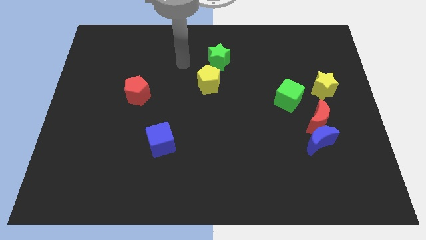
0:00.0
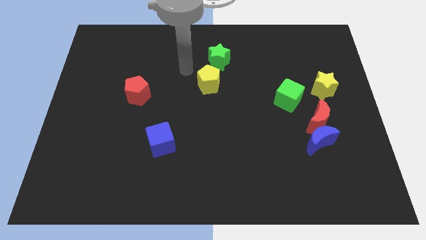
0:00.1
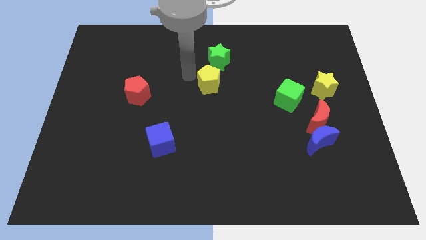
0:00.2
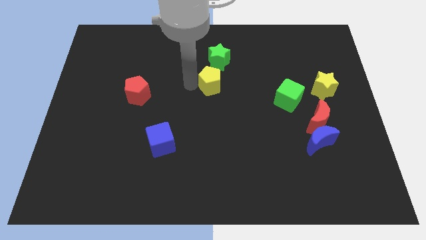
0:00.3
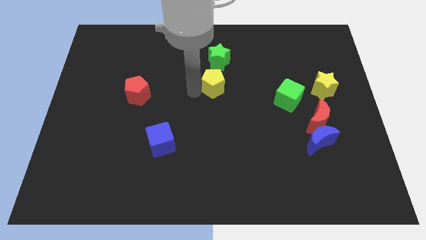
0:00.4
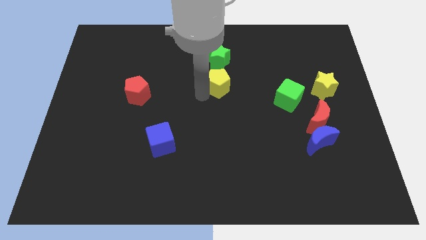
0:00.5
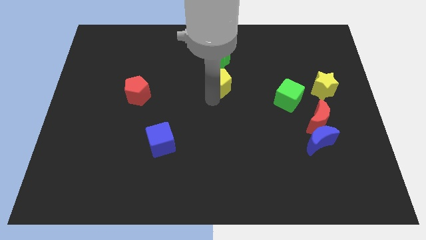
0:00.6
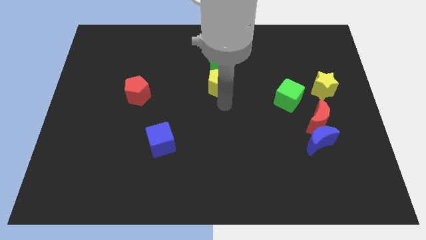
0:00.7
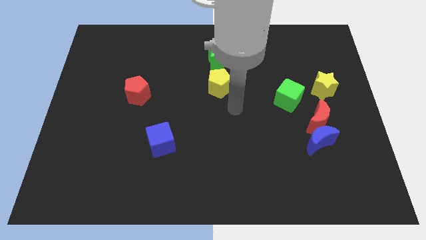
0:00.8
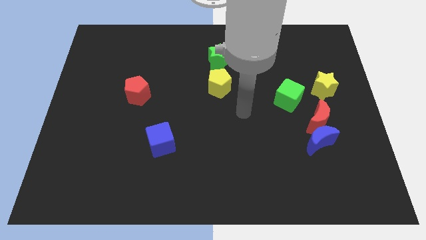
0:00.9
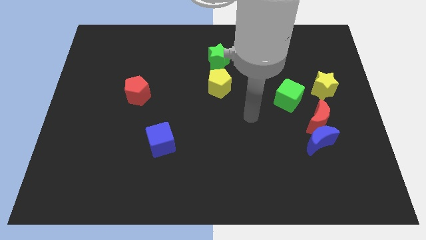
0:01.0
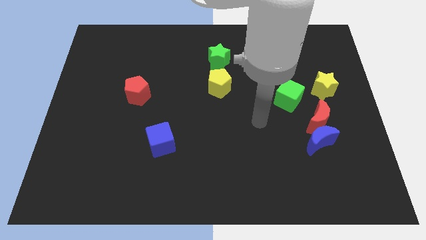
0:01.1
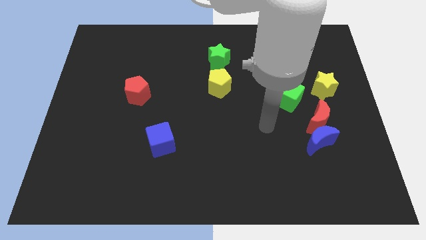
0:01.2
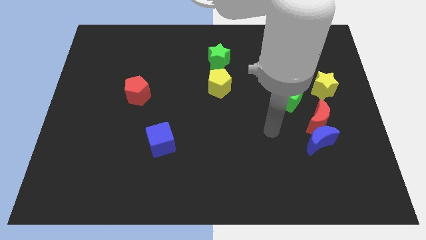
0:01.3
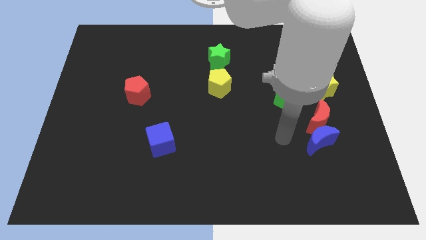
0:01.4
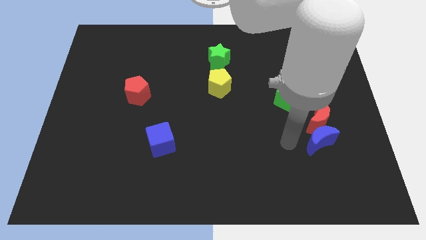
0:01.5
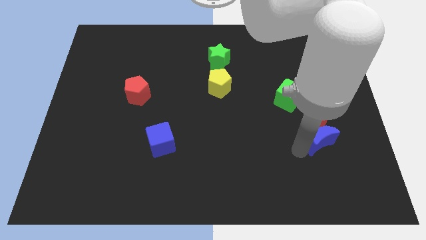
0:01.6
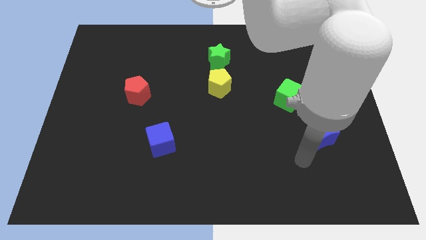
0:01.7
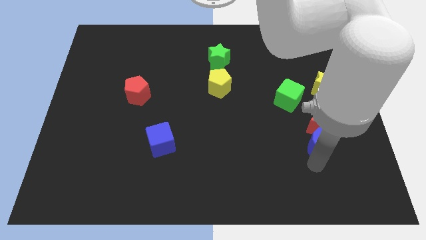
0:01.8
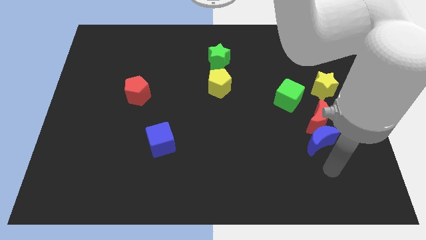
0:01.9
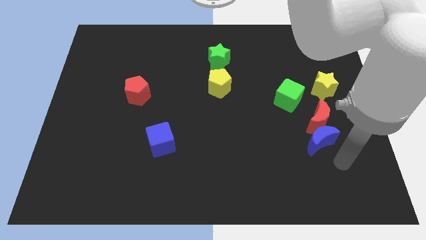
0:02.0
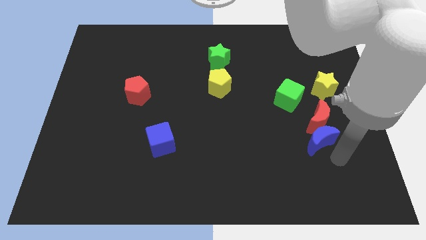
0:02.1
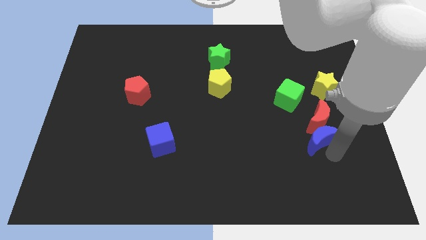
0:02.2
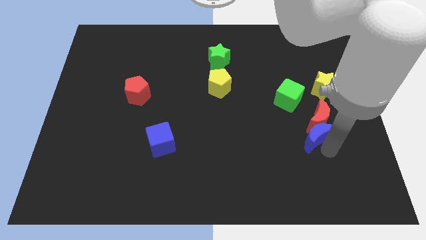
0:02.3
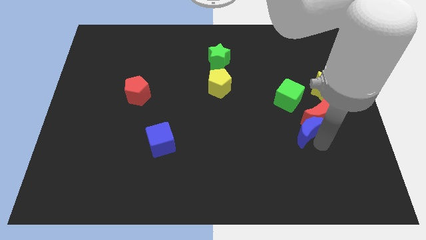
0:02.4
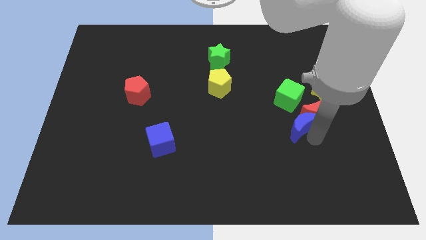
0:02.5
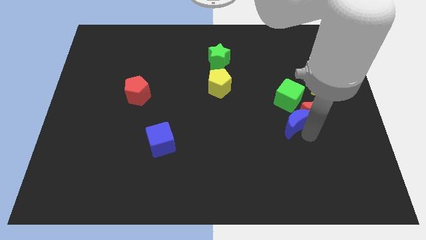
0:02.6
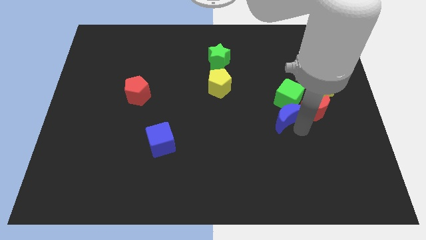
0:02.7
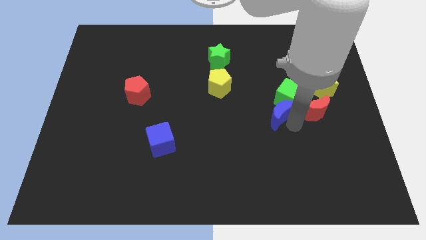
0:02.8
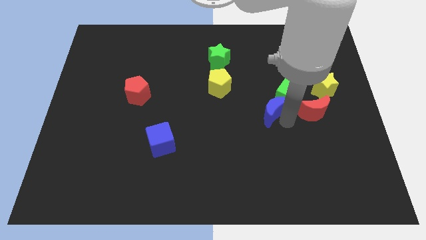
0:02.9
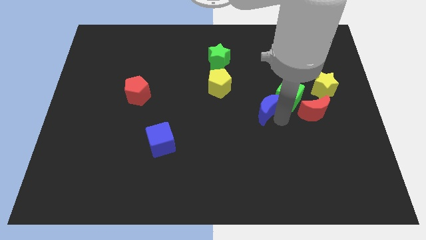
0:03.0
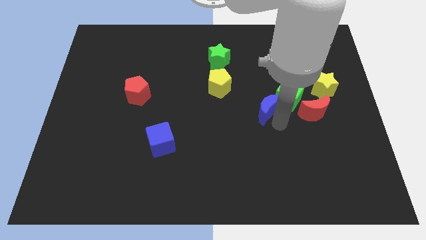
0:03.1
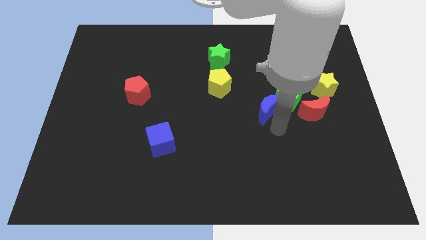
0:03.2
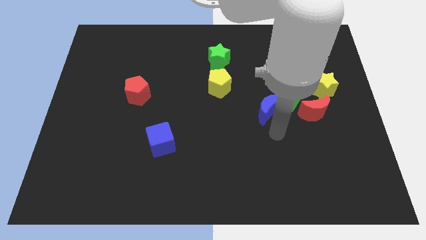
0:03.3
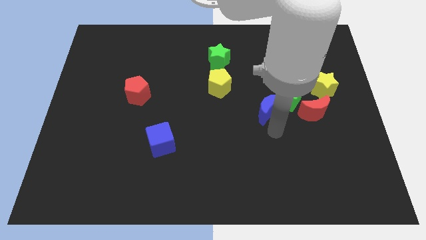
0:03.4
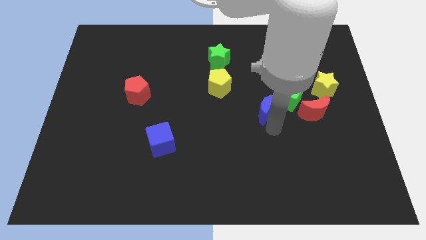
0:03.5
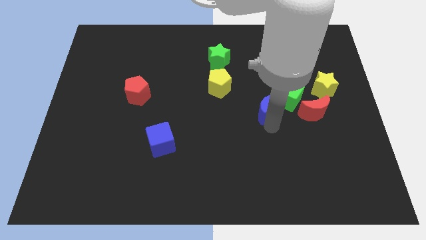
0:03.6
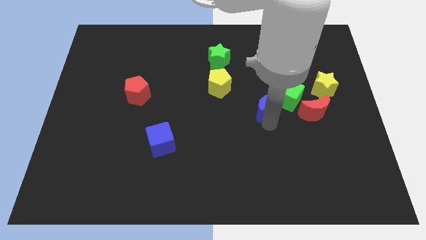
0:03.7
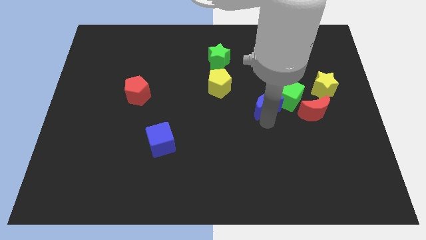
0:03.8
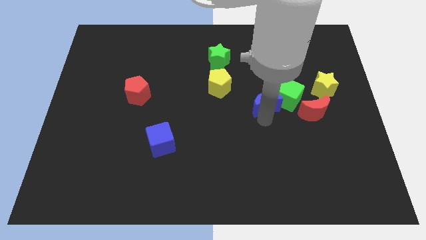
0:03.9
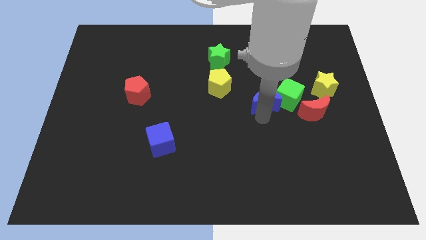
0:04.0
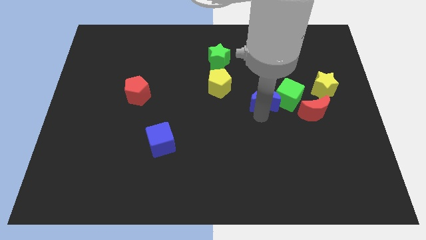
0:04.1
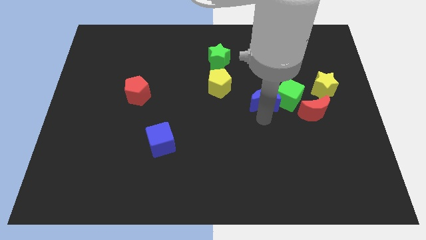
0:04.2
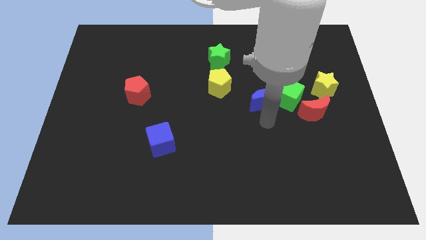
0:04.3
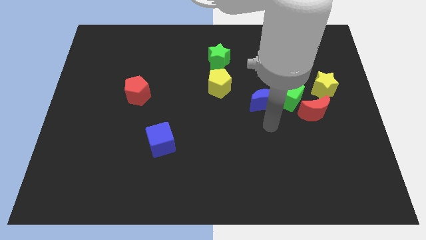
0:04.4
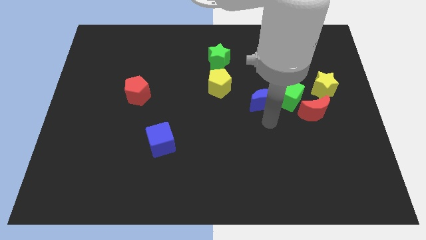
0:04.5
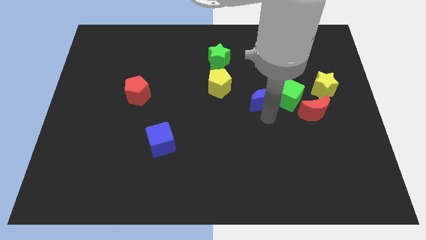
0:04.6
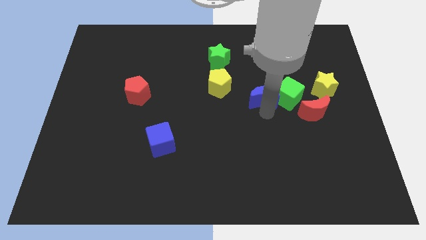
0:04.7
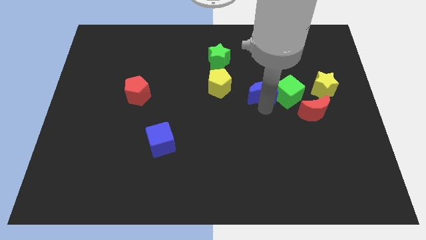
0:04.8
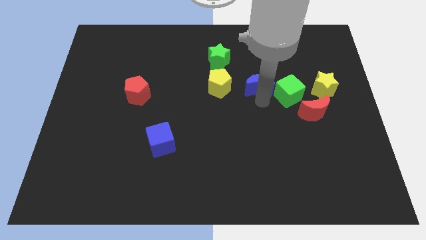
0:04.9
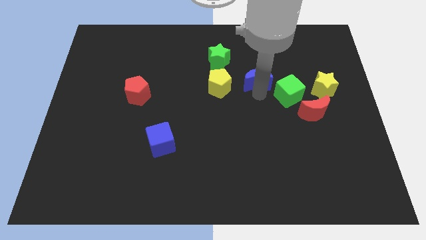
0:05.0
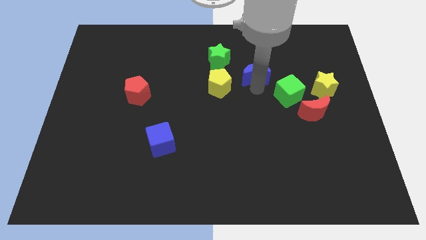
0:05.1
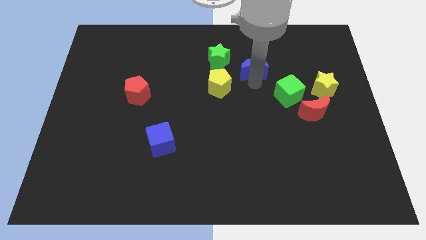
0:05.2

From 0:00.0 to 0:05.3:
slide the blue moon to the right of the green star

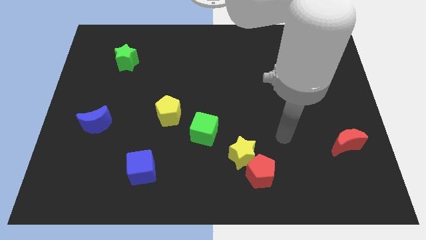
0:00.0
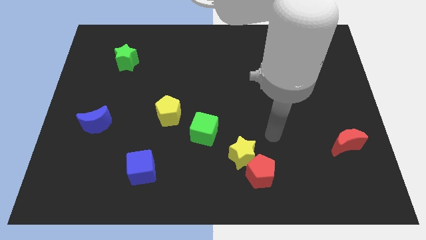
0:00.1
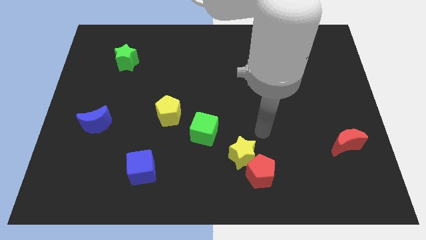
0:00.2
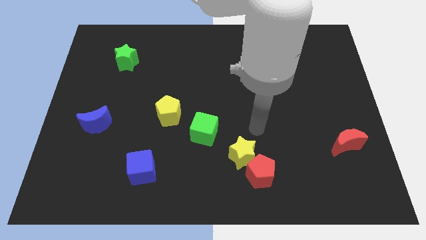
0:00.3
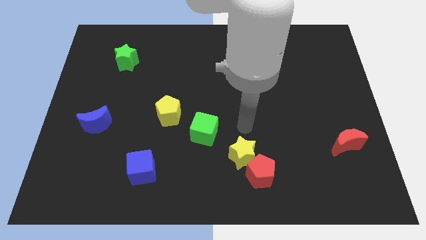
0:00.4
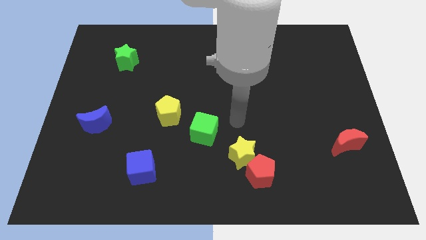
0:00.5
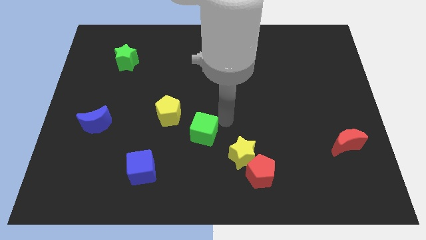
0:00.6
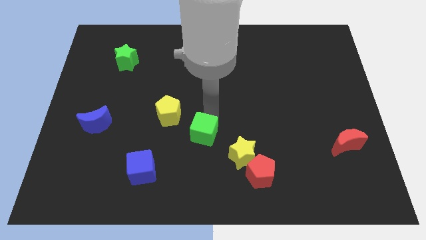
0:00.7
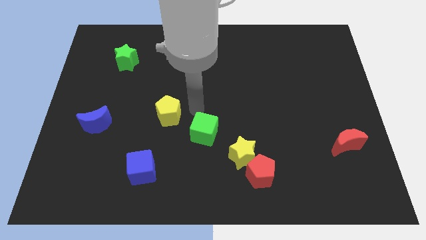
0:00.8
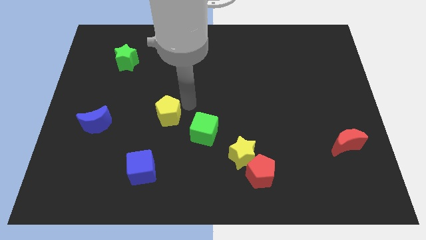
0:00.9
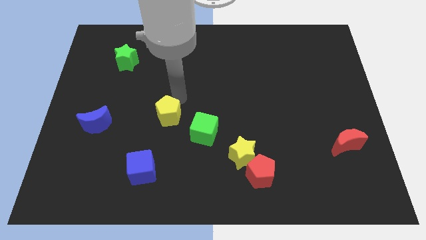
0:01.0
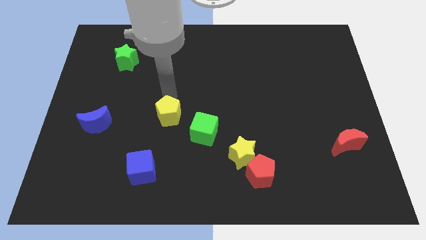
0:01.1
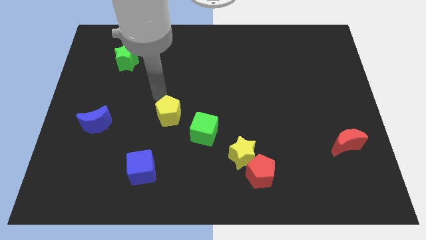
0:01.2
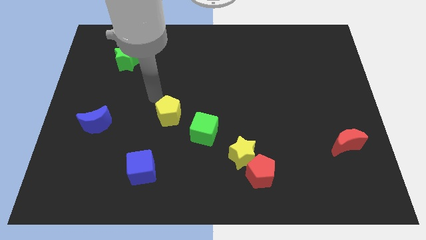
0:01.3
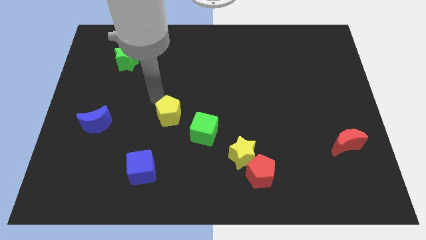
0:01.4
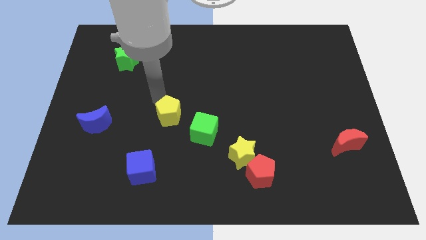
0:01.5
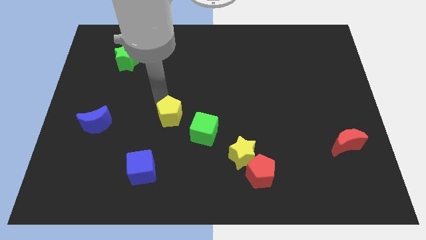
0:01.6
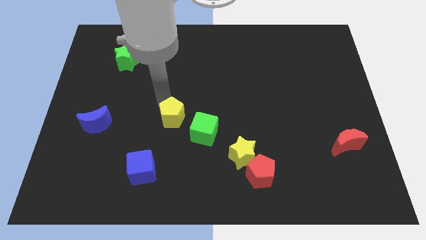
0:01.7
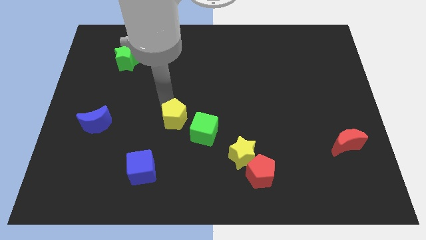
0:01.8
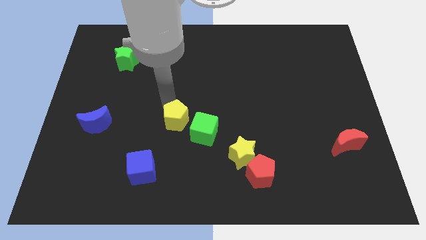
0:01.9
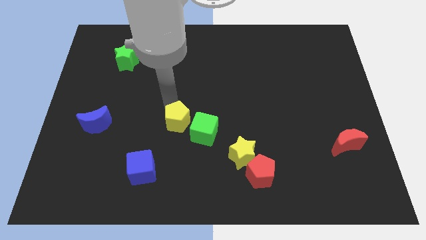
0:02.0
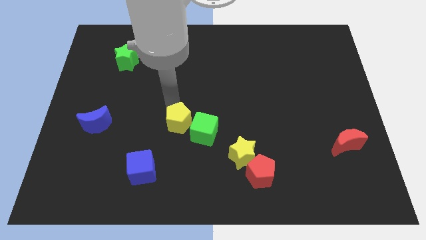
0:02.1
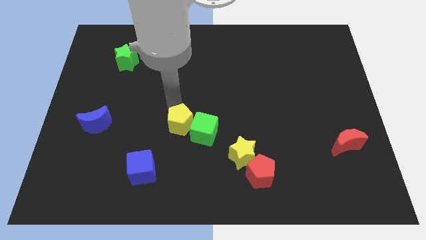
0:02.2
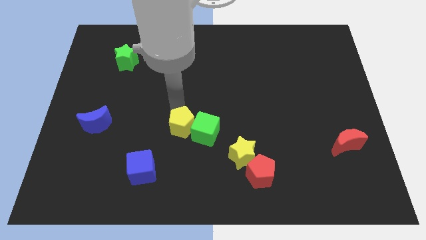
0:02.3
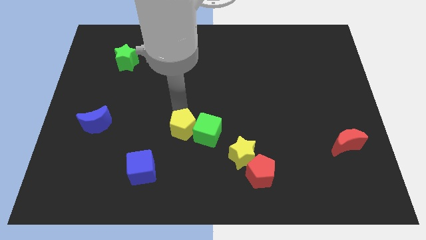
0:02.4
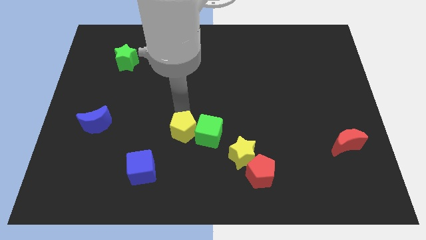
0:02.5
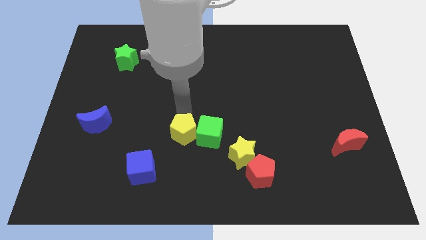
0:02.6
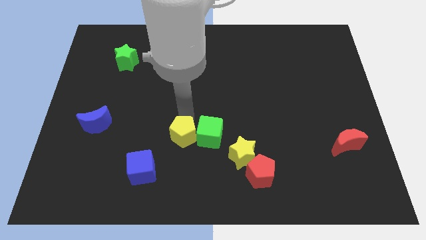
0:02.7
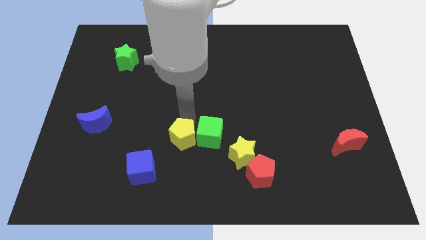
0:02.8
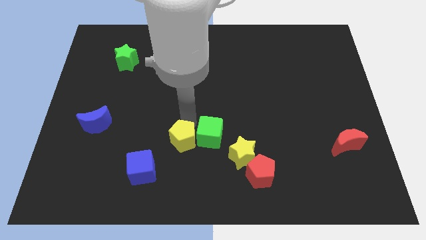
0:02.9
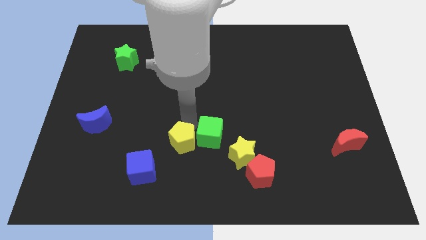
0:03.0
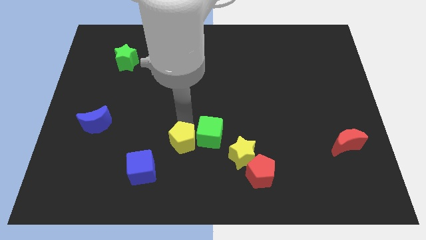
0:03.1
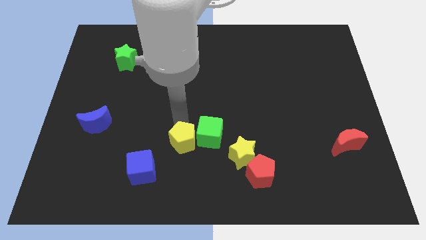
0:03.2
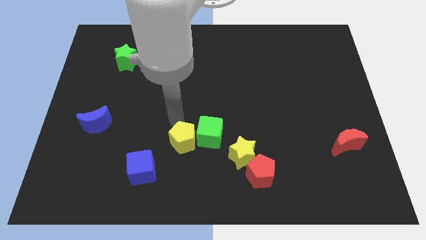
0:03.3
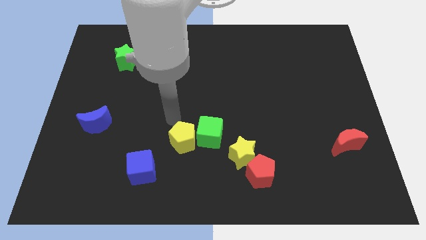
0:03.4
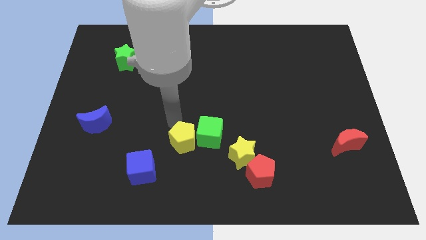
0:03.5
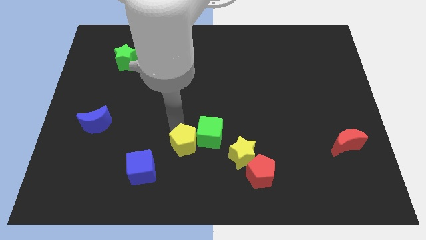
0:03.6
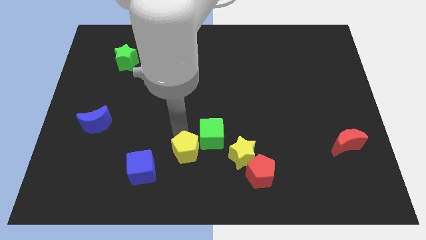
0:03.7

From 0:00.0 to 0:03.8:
slide the yellow pentagon right of the blue cube
